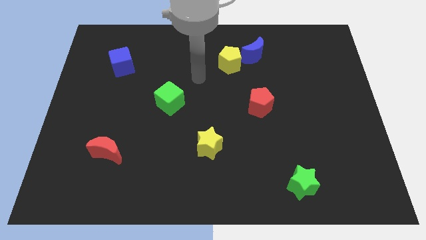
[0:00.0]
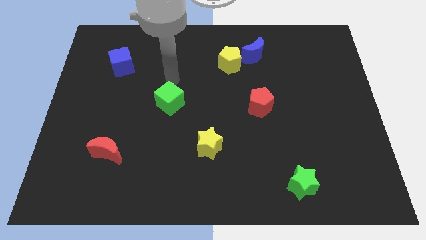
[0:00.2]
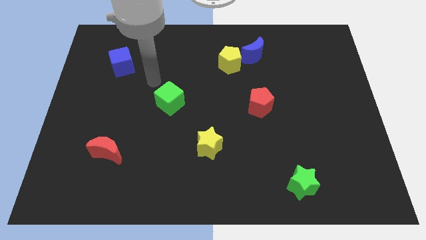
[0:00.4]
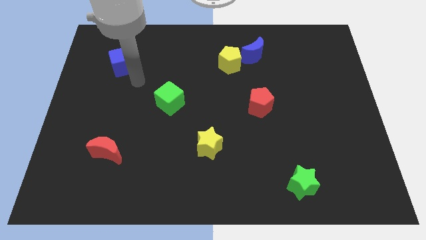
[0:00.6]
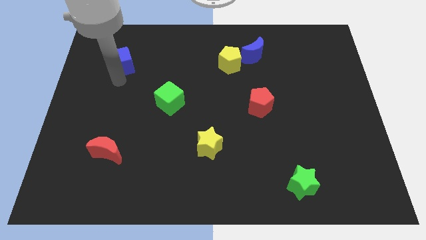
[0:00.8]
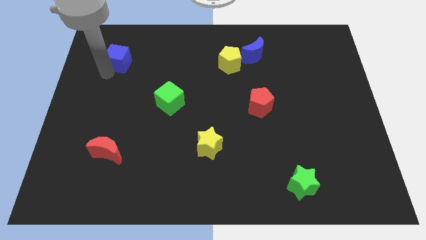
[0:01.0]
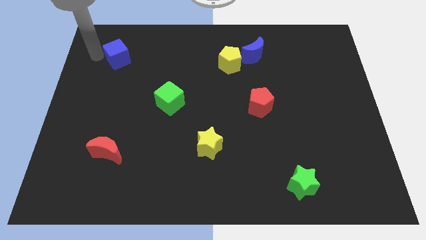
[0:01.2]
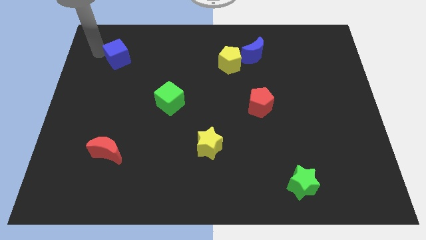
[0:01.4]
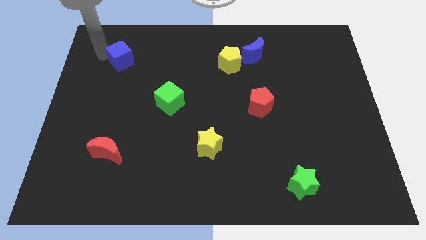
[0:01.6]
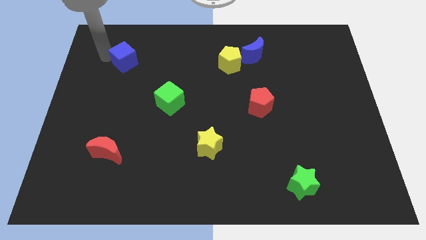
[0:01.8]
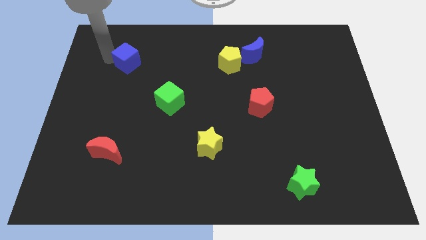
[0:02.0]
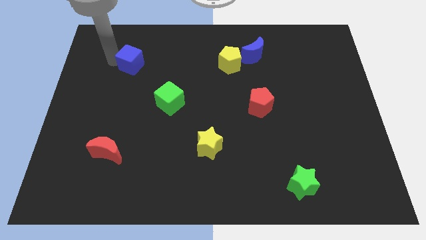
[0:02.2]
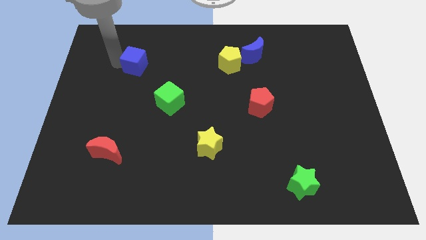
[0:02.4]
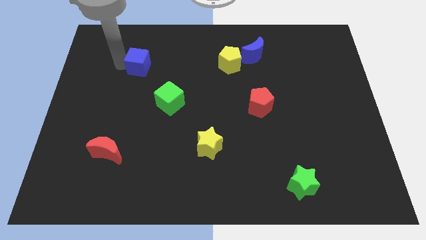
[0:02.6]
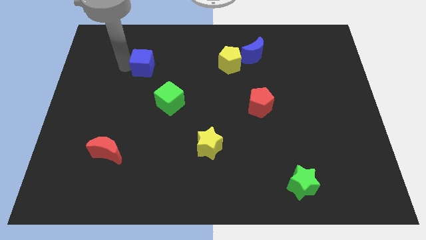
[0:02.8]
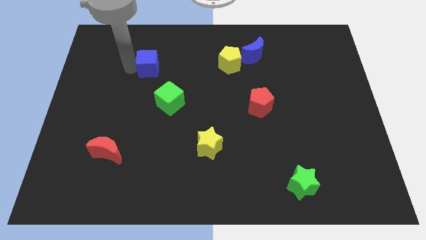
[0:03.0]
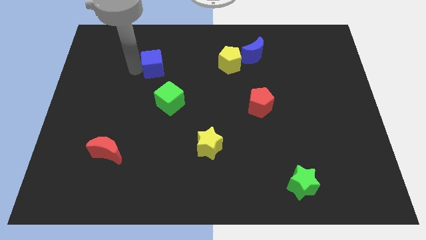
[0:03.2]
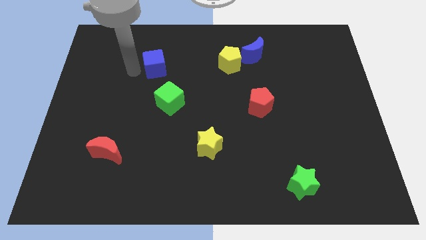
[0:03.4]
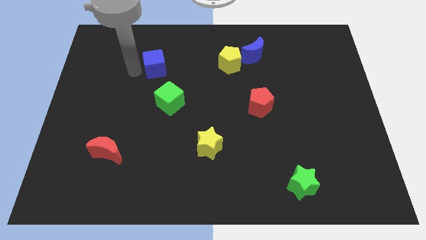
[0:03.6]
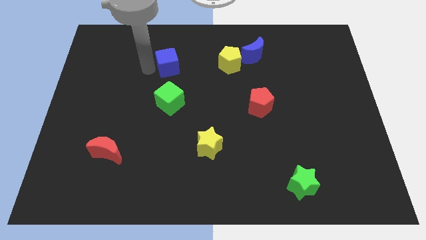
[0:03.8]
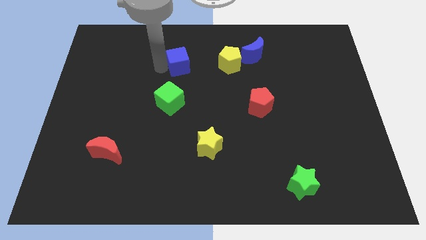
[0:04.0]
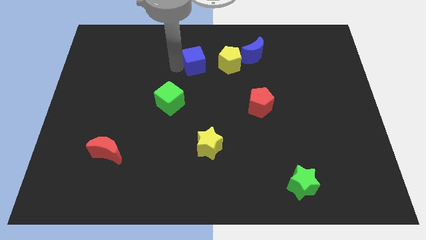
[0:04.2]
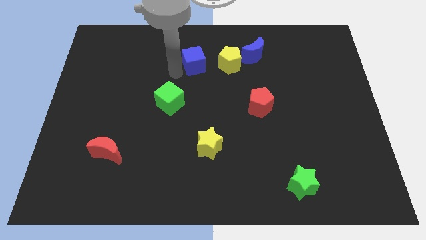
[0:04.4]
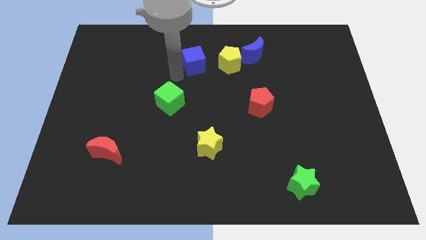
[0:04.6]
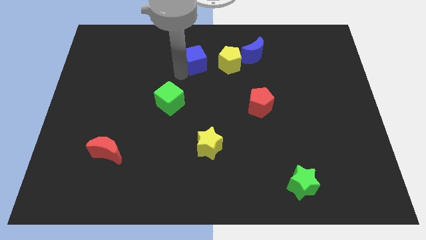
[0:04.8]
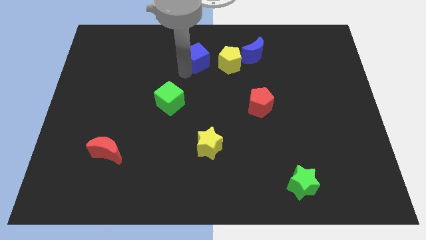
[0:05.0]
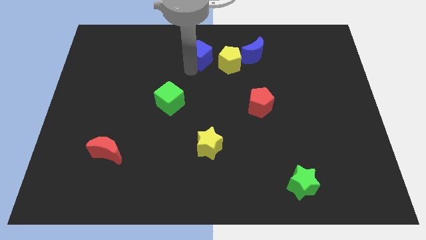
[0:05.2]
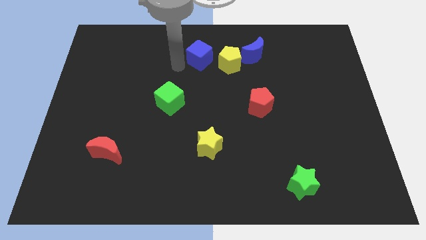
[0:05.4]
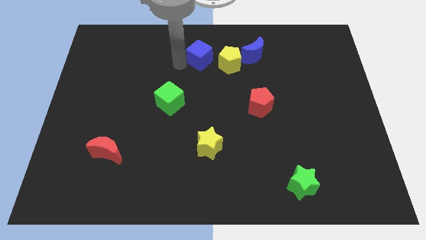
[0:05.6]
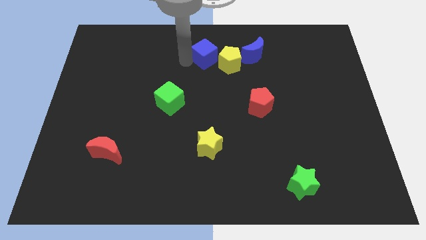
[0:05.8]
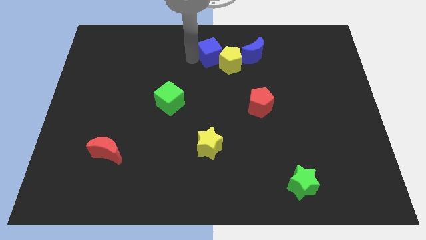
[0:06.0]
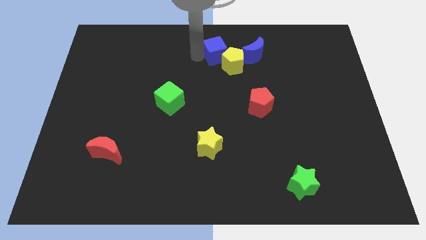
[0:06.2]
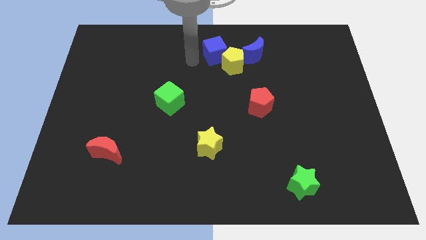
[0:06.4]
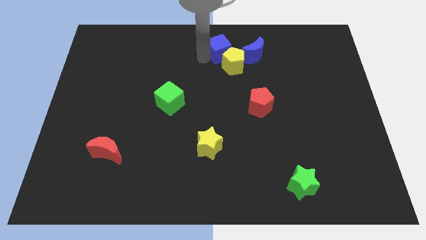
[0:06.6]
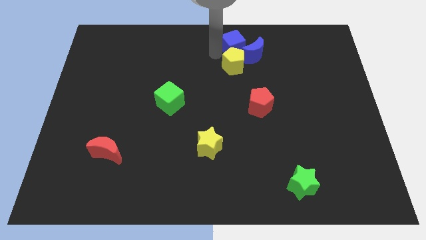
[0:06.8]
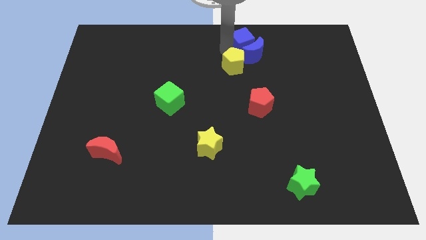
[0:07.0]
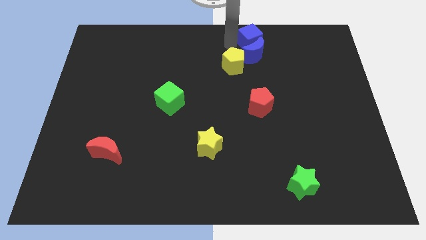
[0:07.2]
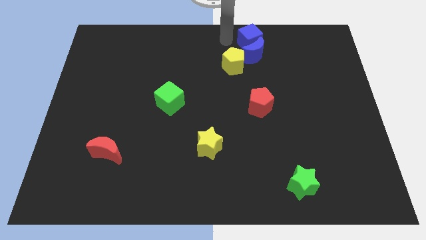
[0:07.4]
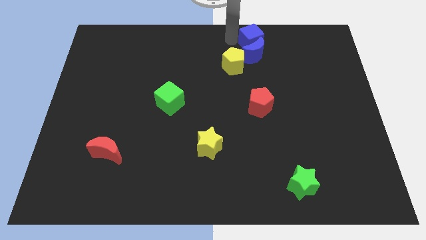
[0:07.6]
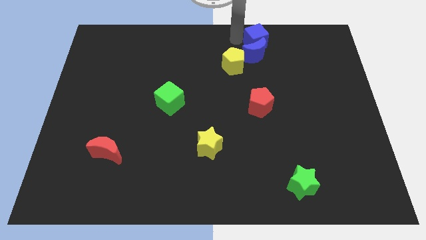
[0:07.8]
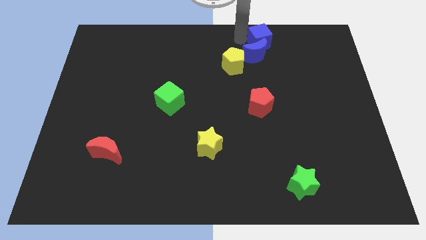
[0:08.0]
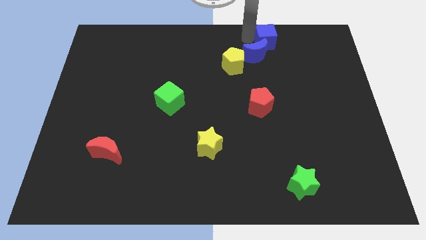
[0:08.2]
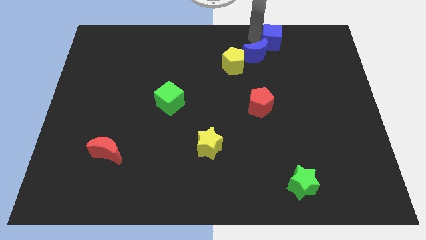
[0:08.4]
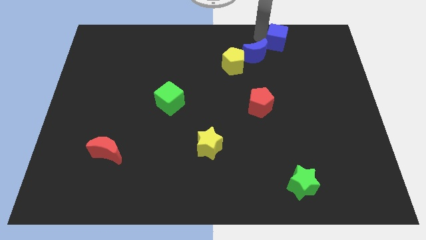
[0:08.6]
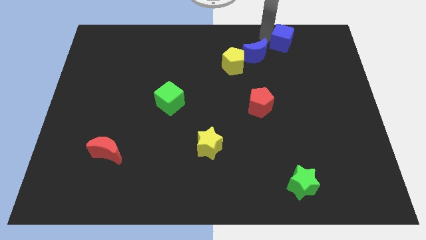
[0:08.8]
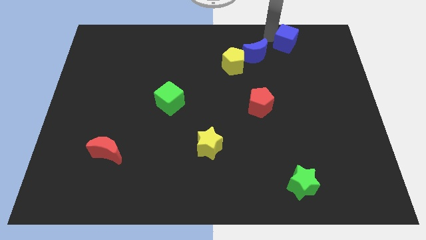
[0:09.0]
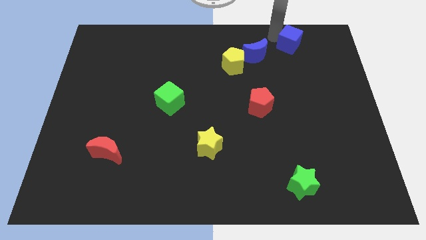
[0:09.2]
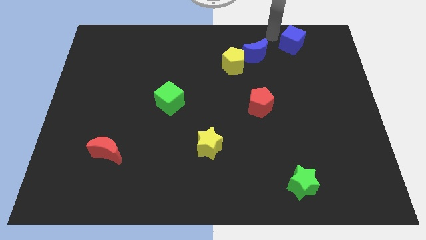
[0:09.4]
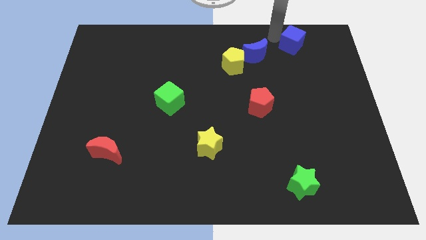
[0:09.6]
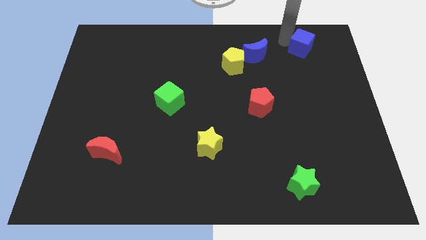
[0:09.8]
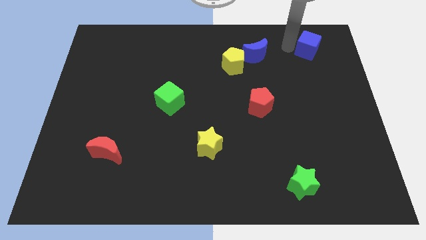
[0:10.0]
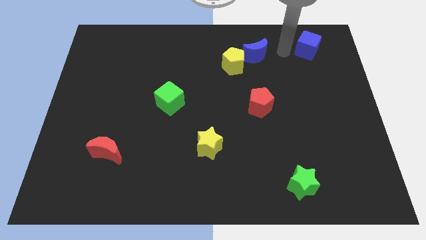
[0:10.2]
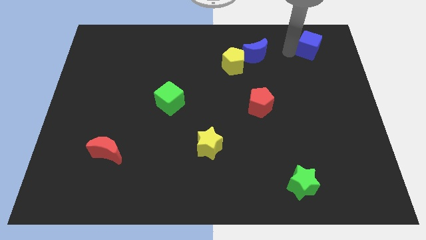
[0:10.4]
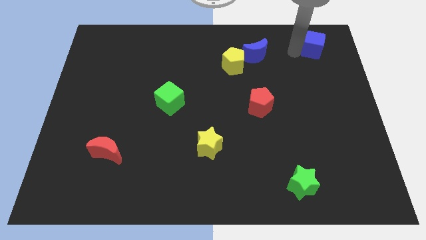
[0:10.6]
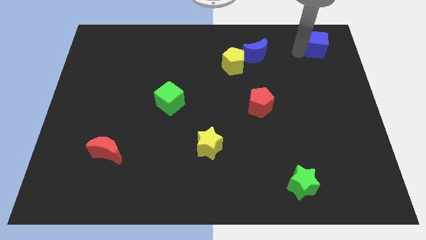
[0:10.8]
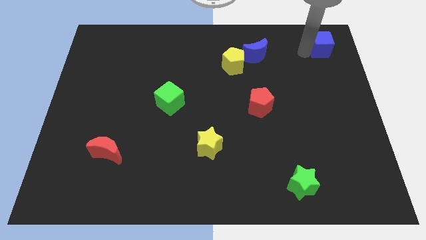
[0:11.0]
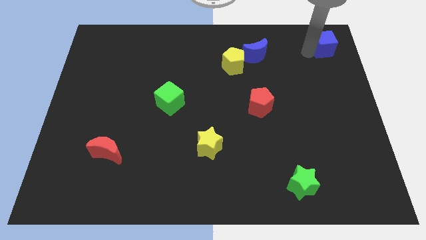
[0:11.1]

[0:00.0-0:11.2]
push the blue cube to the top right of the board

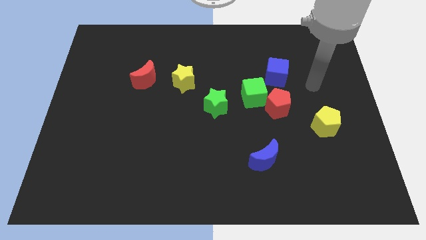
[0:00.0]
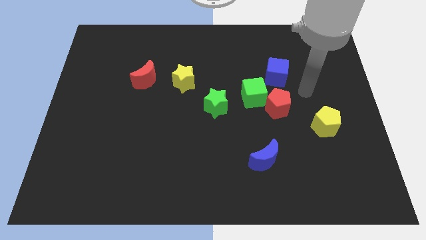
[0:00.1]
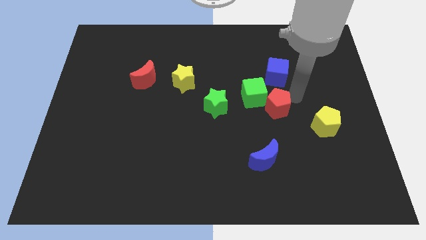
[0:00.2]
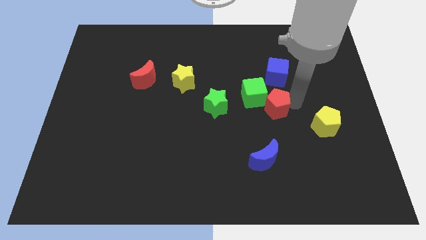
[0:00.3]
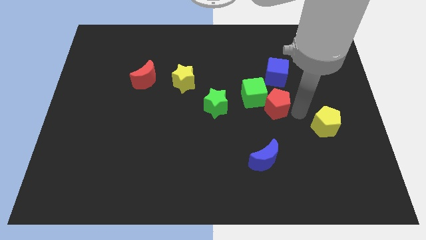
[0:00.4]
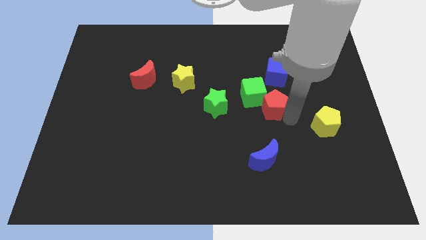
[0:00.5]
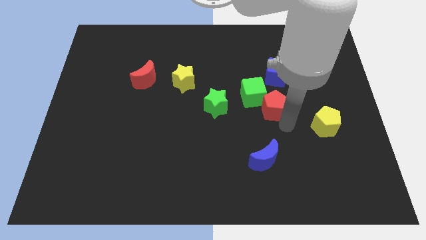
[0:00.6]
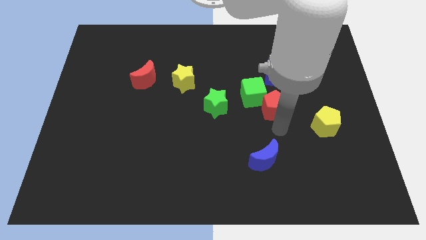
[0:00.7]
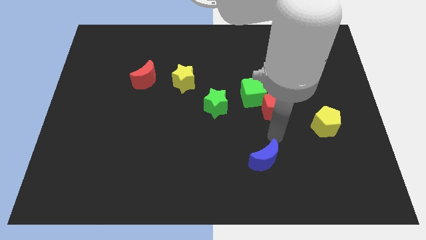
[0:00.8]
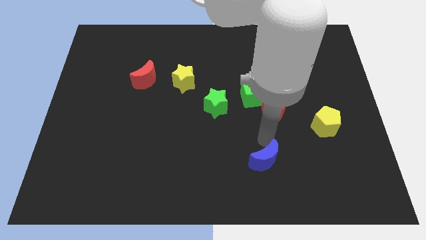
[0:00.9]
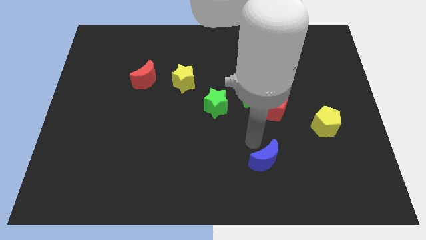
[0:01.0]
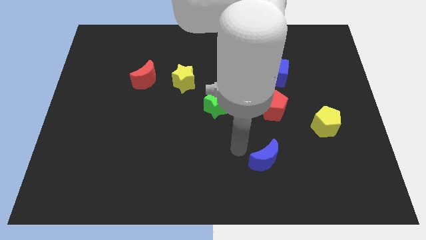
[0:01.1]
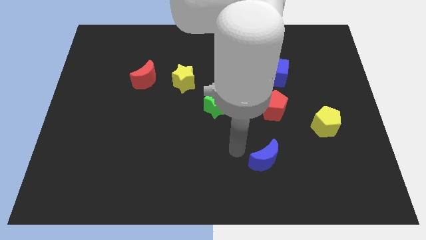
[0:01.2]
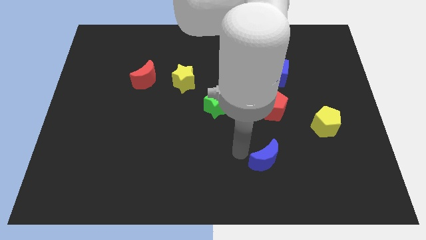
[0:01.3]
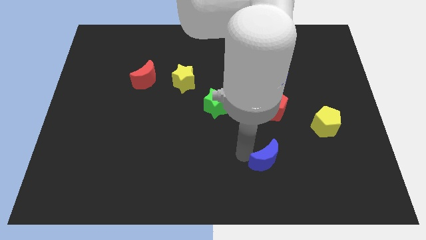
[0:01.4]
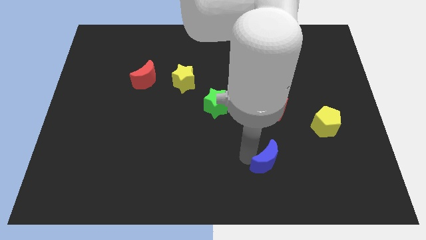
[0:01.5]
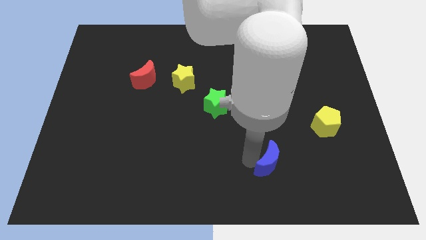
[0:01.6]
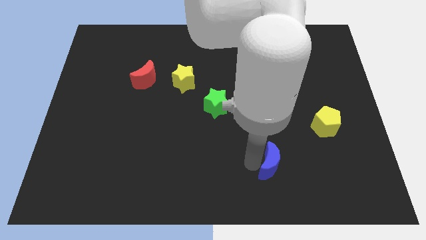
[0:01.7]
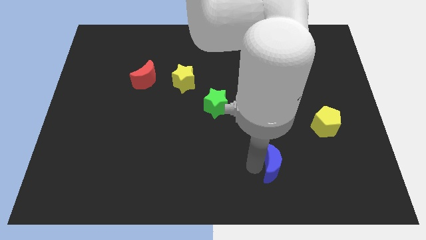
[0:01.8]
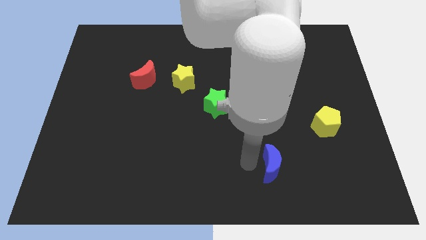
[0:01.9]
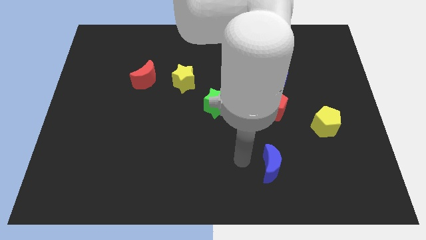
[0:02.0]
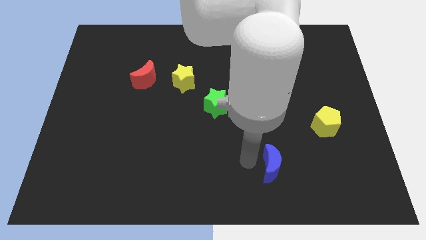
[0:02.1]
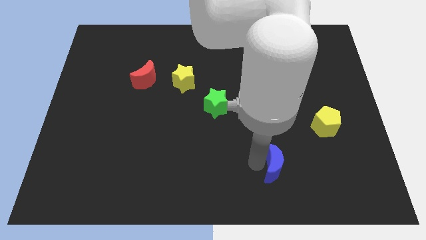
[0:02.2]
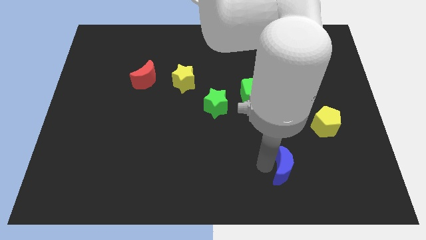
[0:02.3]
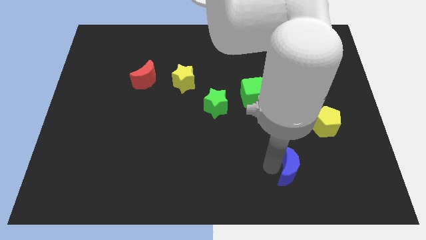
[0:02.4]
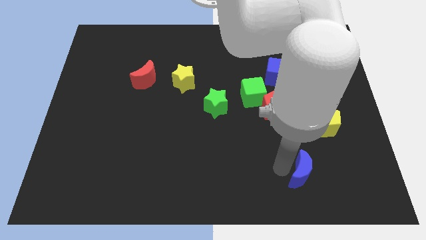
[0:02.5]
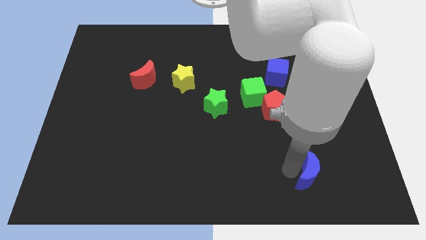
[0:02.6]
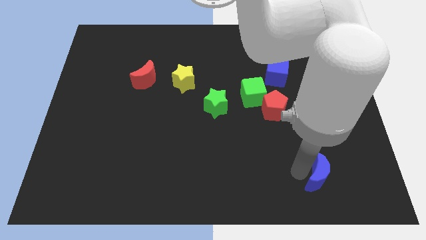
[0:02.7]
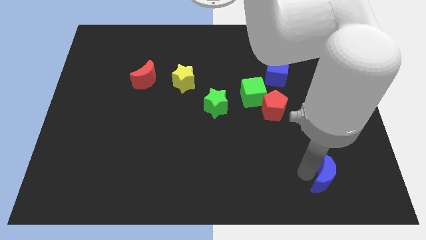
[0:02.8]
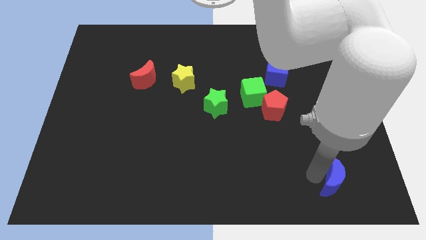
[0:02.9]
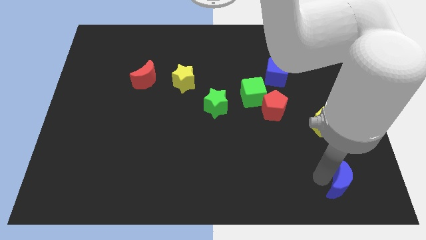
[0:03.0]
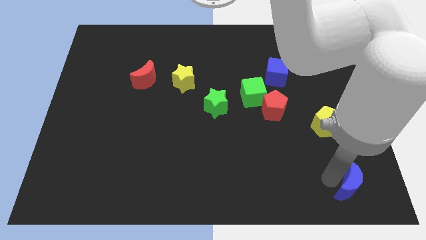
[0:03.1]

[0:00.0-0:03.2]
move the blue moon to the bottom right
